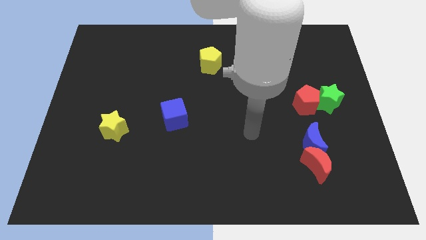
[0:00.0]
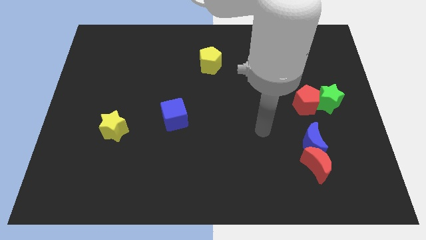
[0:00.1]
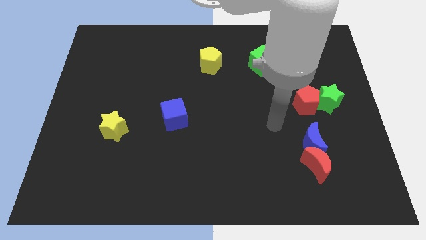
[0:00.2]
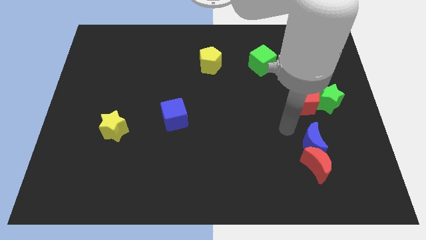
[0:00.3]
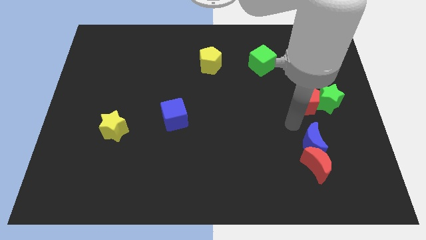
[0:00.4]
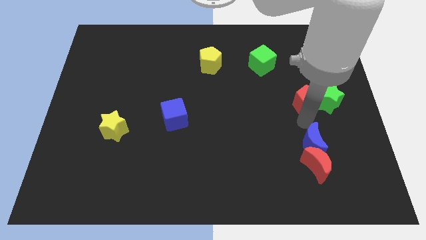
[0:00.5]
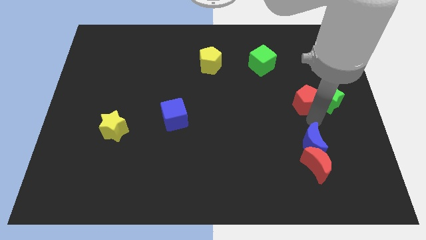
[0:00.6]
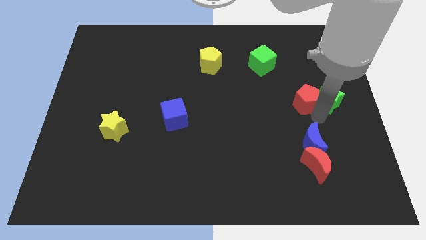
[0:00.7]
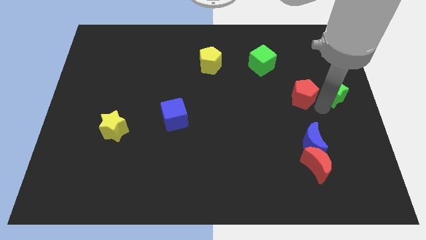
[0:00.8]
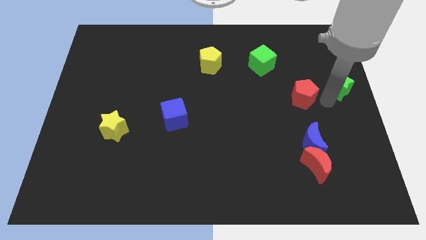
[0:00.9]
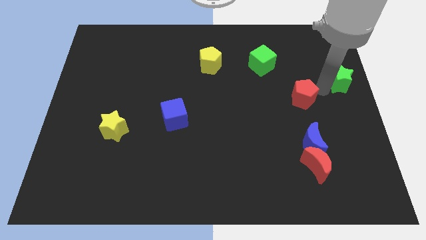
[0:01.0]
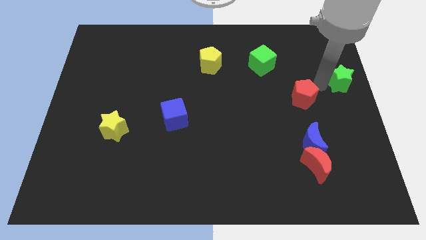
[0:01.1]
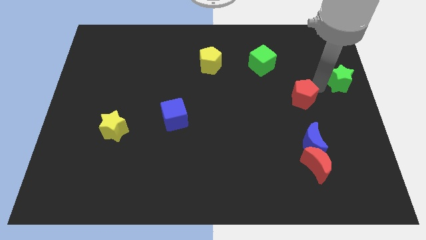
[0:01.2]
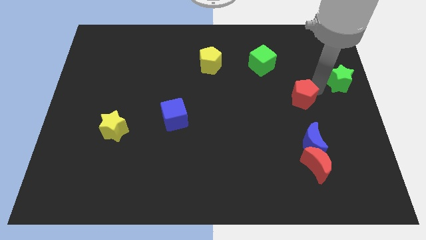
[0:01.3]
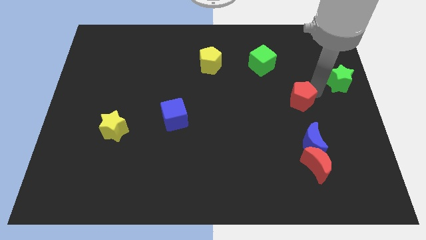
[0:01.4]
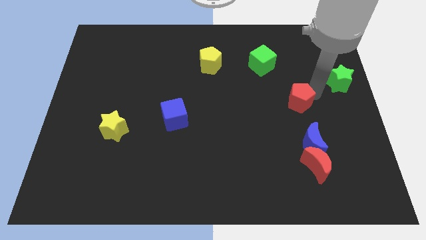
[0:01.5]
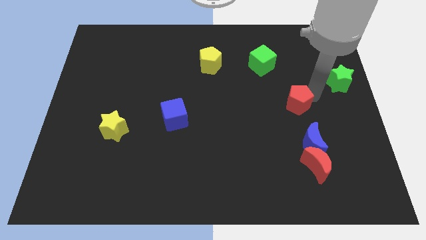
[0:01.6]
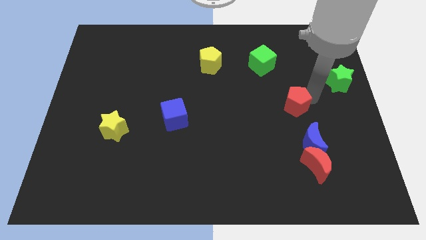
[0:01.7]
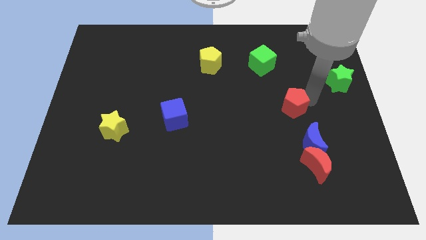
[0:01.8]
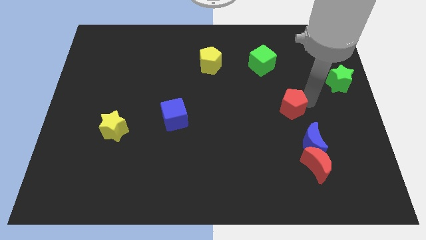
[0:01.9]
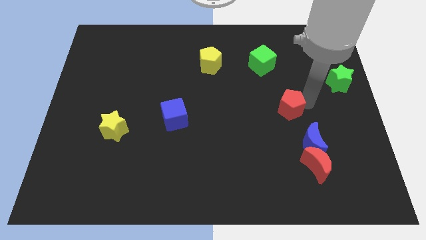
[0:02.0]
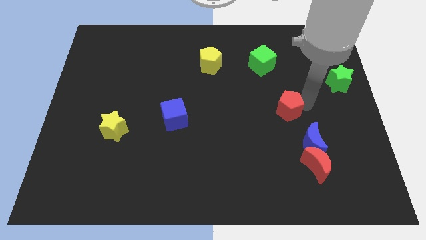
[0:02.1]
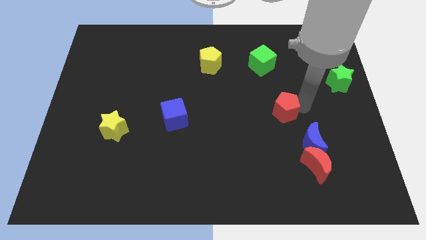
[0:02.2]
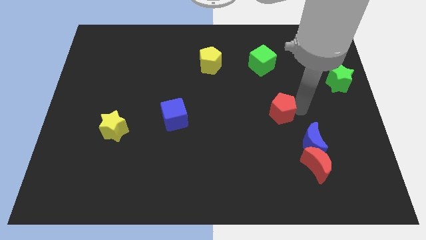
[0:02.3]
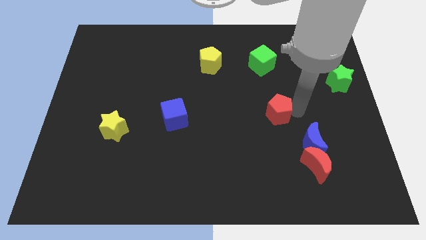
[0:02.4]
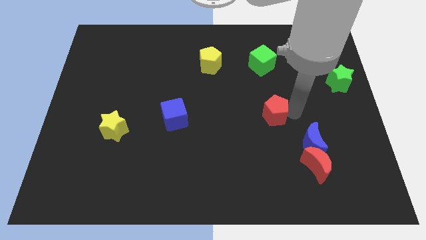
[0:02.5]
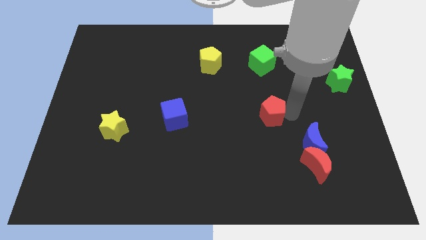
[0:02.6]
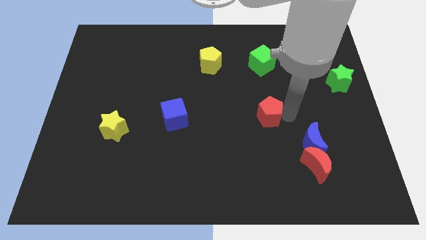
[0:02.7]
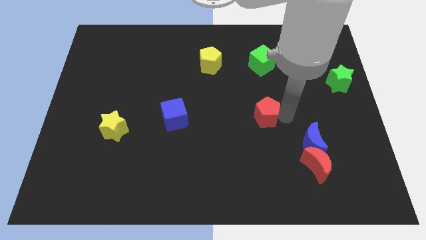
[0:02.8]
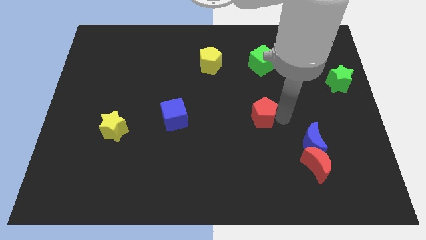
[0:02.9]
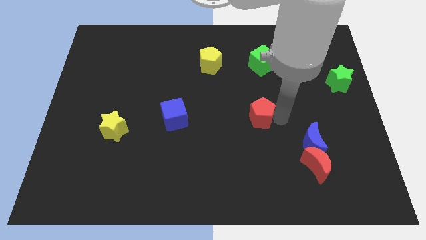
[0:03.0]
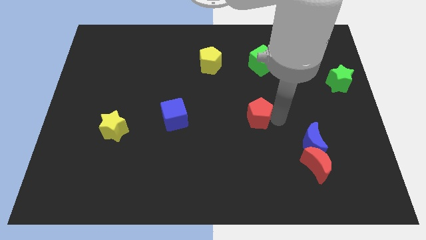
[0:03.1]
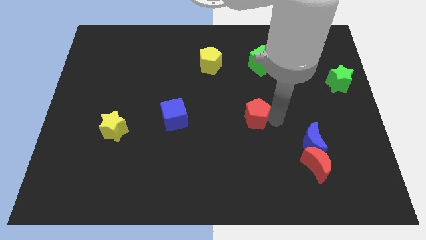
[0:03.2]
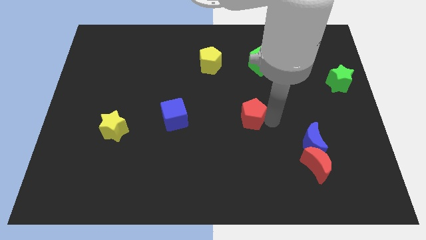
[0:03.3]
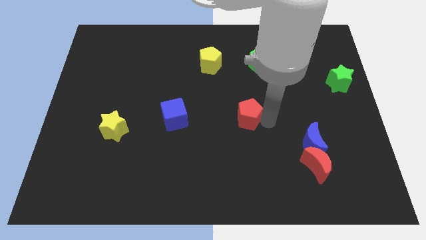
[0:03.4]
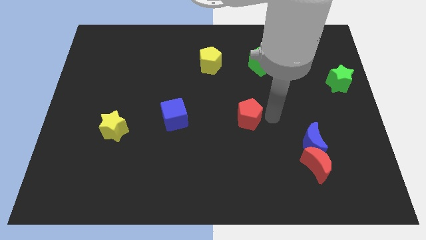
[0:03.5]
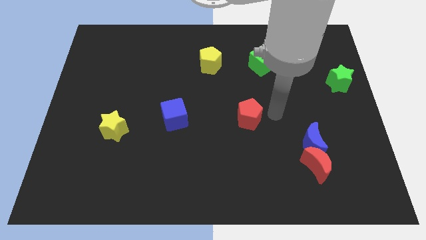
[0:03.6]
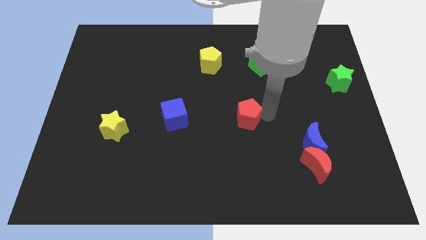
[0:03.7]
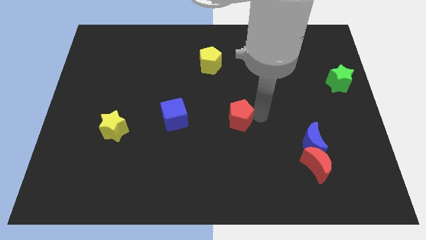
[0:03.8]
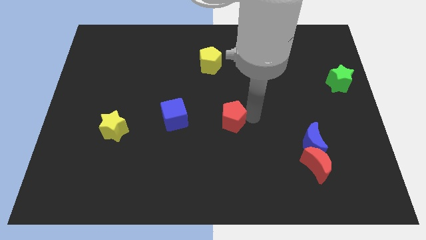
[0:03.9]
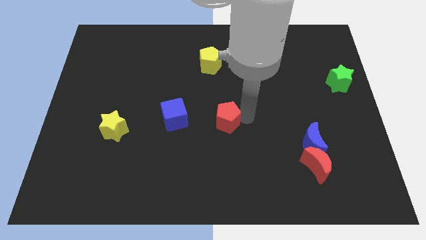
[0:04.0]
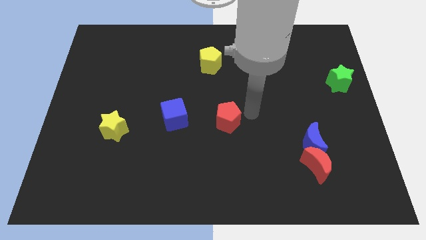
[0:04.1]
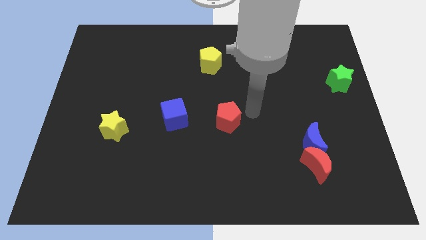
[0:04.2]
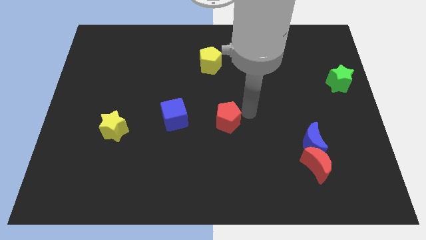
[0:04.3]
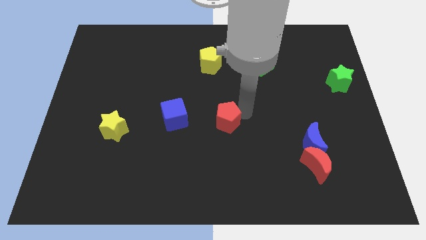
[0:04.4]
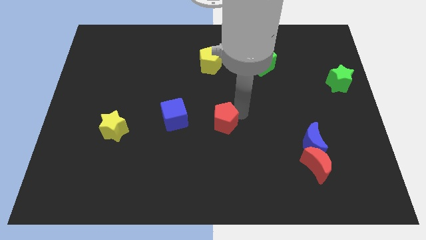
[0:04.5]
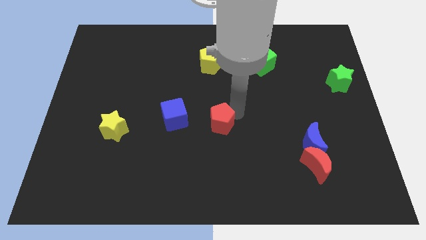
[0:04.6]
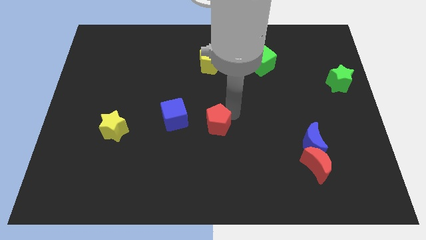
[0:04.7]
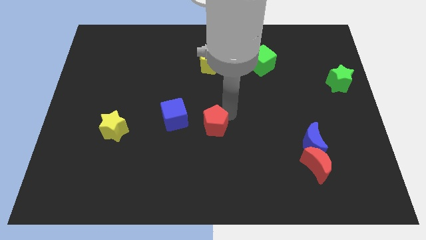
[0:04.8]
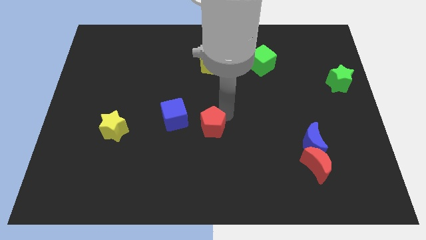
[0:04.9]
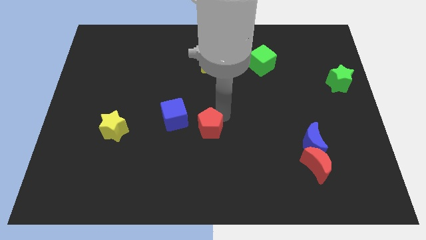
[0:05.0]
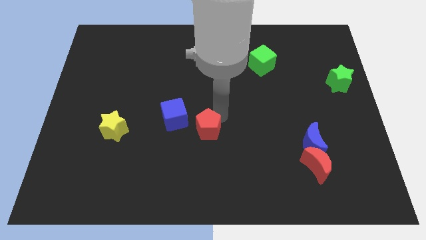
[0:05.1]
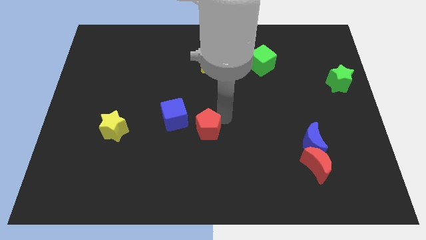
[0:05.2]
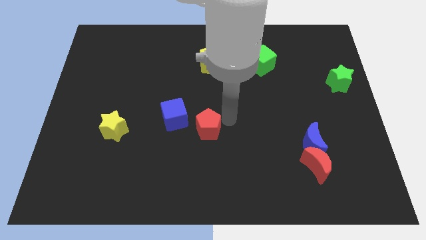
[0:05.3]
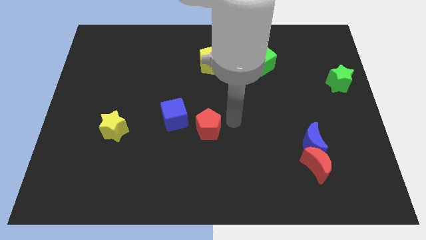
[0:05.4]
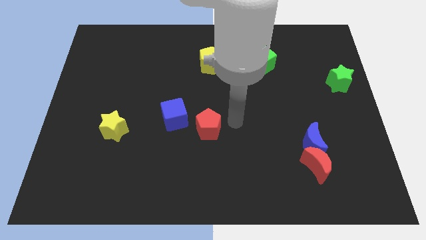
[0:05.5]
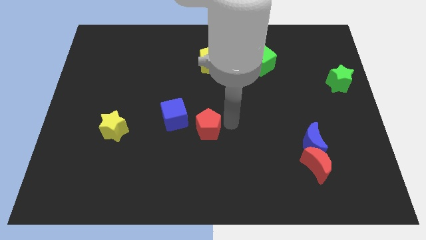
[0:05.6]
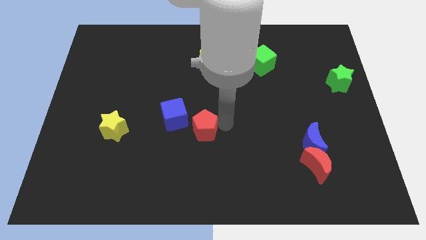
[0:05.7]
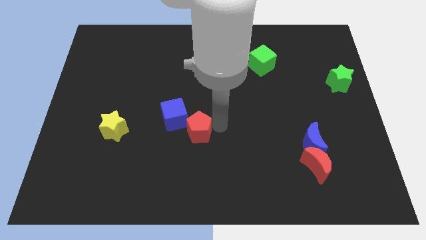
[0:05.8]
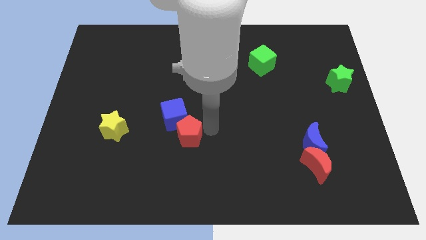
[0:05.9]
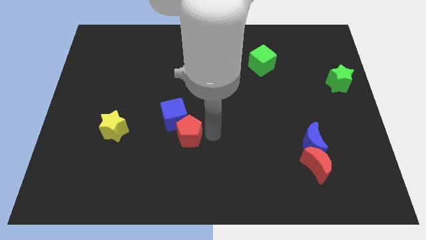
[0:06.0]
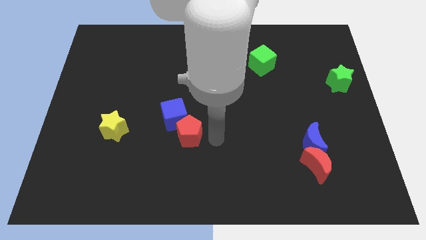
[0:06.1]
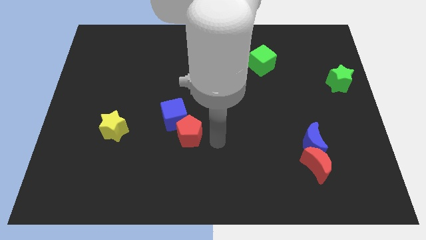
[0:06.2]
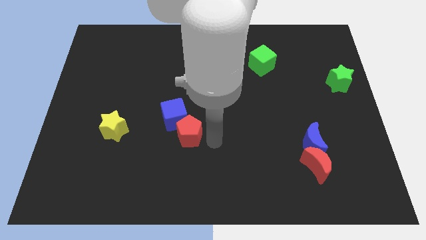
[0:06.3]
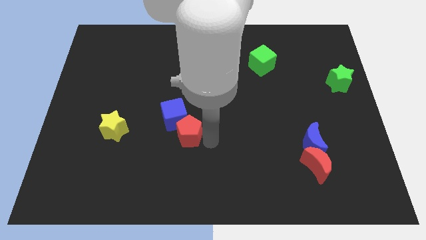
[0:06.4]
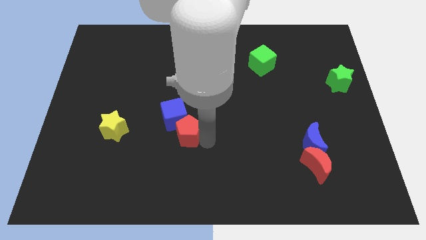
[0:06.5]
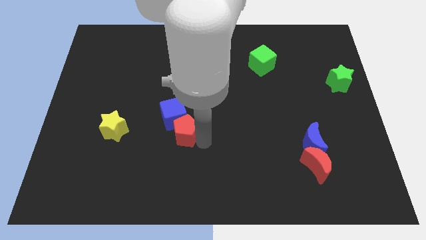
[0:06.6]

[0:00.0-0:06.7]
put the red pentagon just right of the yellow star

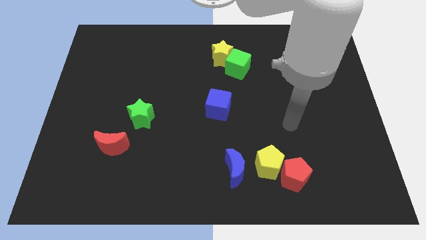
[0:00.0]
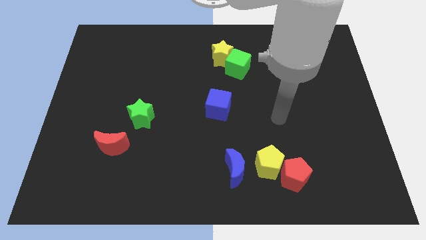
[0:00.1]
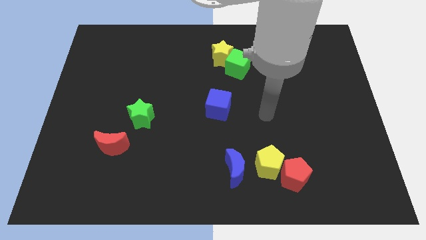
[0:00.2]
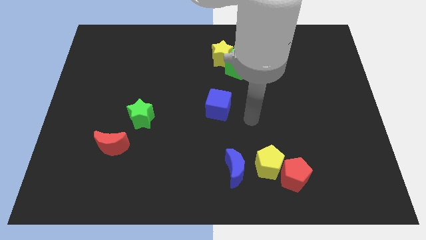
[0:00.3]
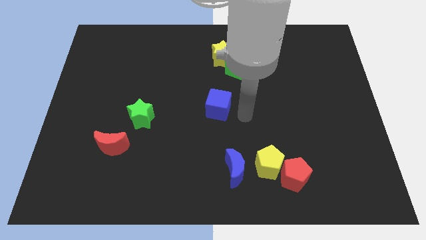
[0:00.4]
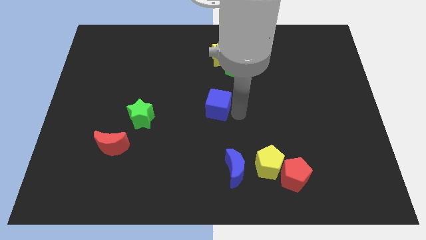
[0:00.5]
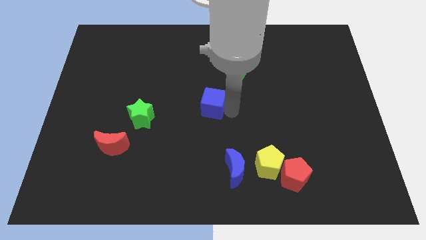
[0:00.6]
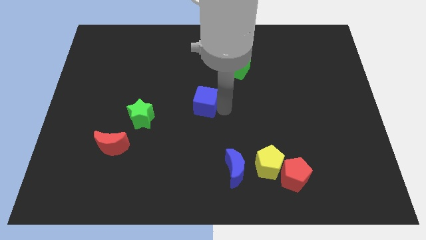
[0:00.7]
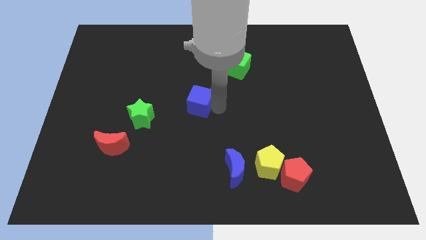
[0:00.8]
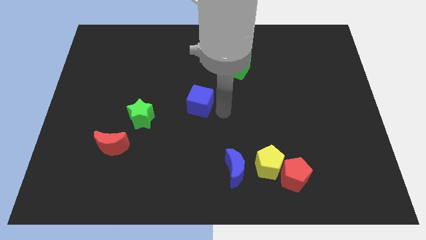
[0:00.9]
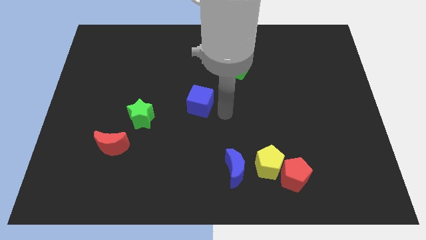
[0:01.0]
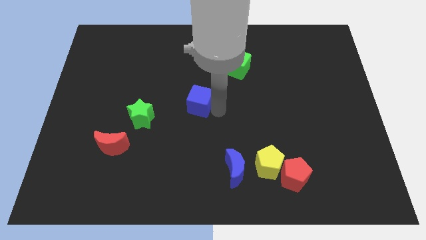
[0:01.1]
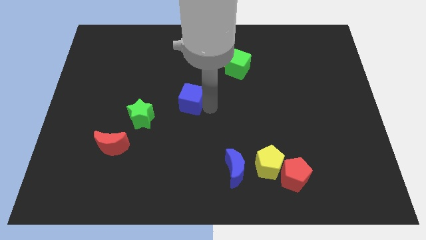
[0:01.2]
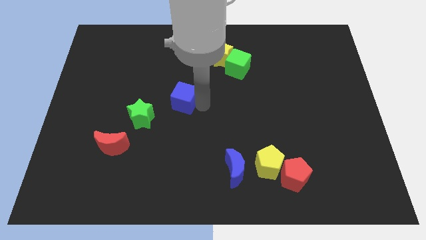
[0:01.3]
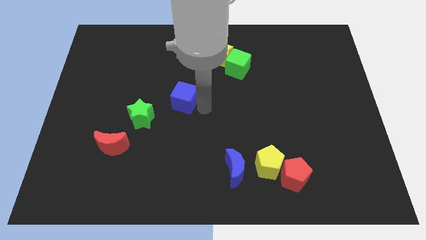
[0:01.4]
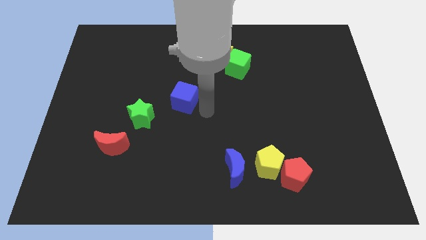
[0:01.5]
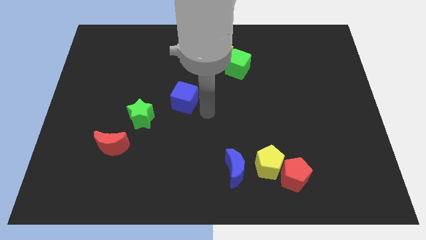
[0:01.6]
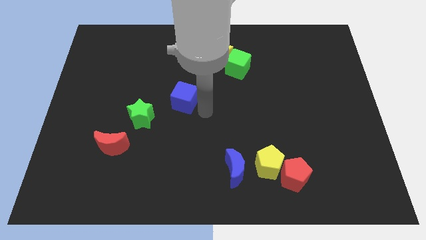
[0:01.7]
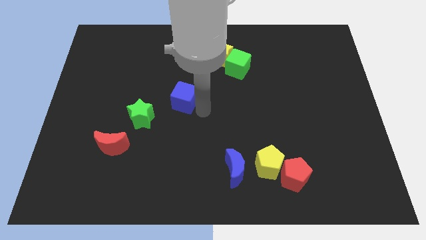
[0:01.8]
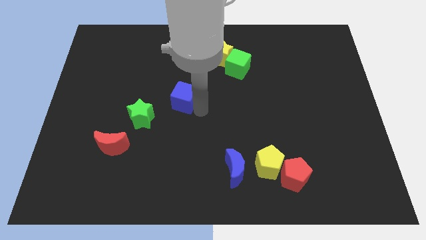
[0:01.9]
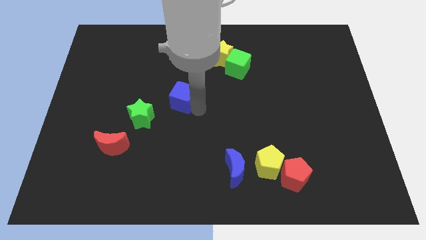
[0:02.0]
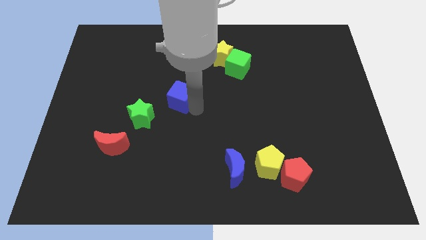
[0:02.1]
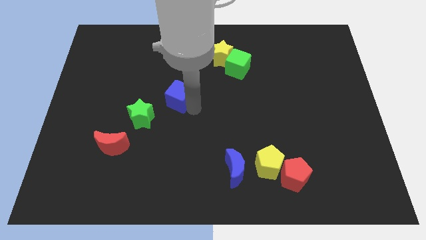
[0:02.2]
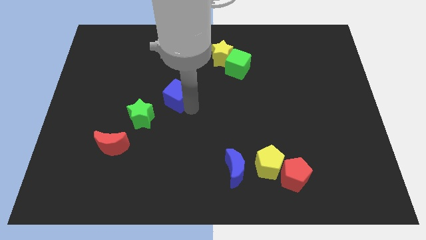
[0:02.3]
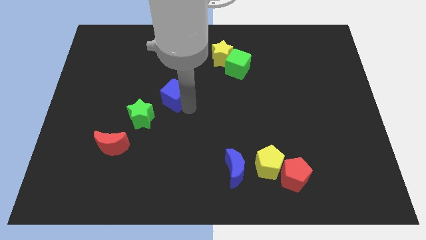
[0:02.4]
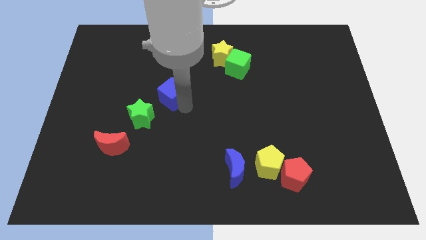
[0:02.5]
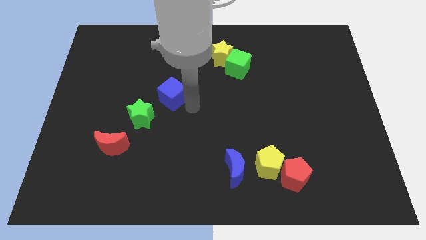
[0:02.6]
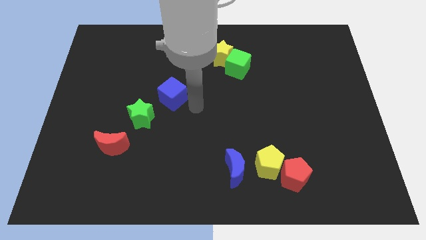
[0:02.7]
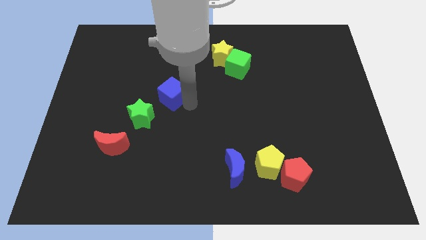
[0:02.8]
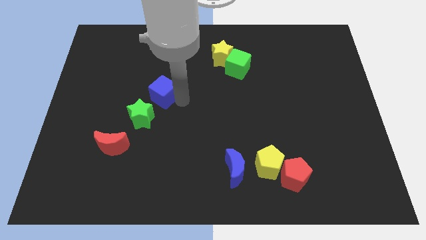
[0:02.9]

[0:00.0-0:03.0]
push the blue cube to the top of the green star
